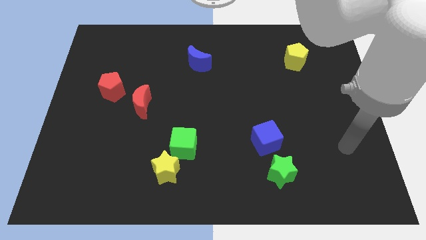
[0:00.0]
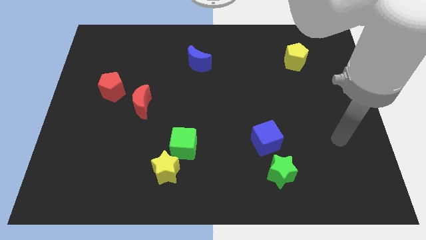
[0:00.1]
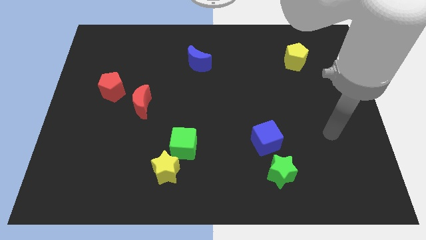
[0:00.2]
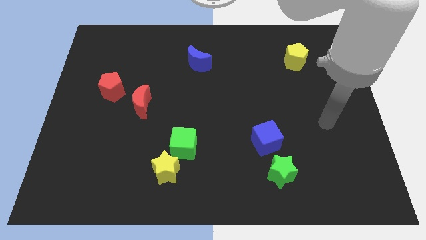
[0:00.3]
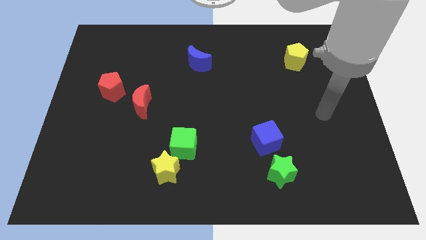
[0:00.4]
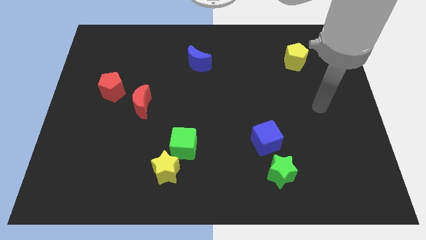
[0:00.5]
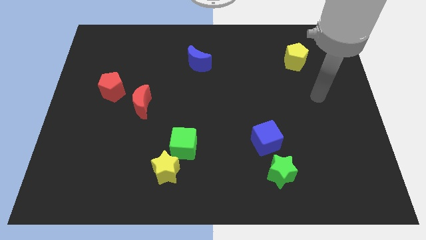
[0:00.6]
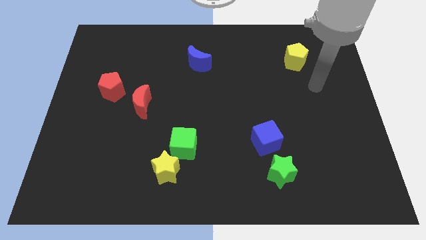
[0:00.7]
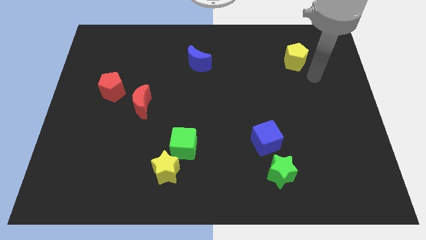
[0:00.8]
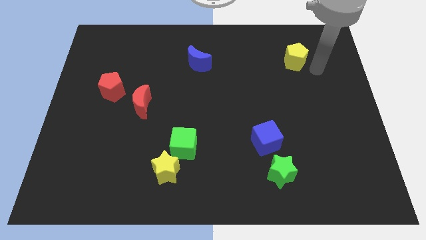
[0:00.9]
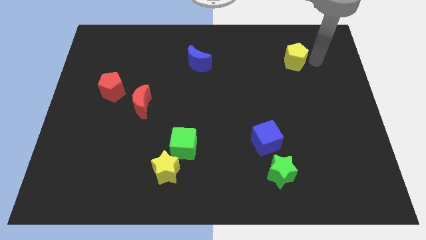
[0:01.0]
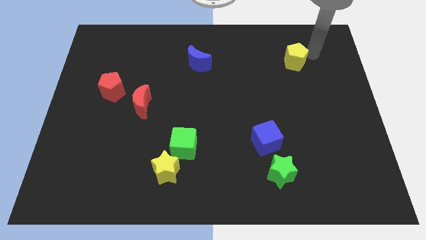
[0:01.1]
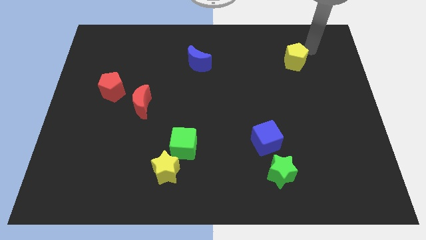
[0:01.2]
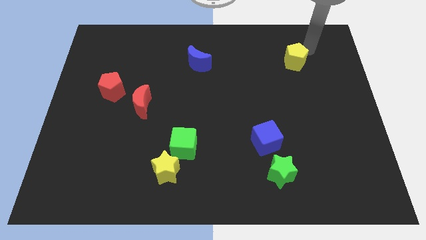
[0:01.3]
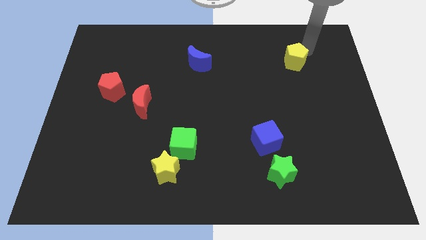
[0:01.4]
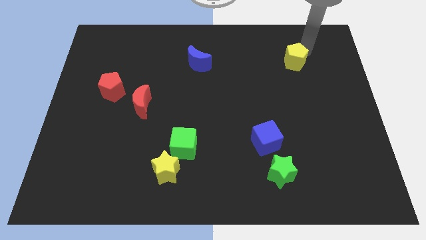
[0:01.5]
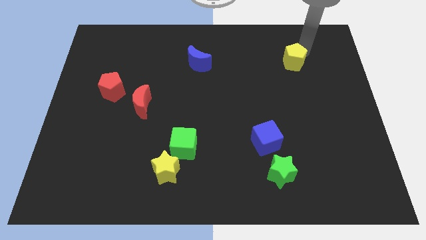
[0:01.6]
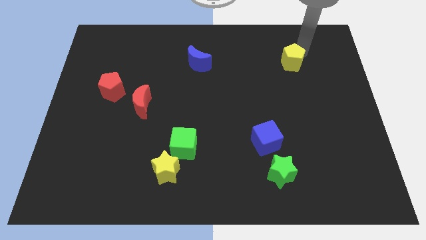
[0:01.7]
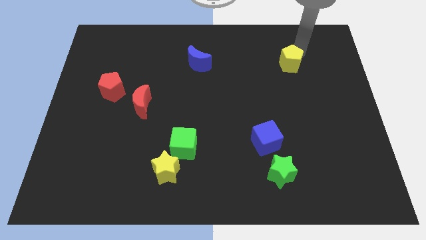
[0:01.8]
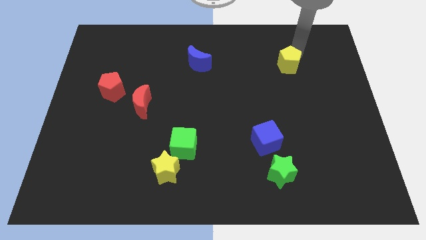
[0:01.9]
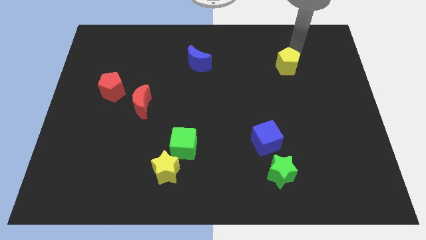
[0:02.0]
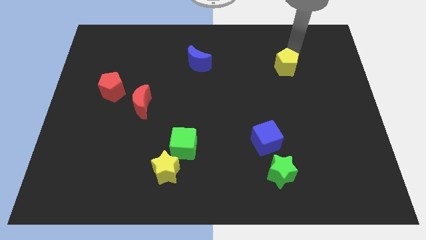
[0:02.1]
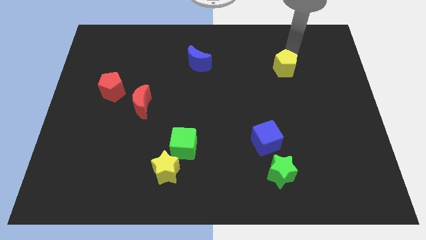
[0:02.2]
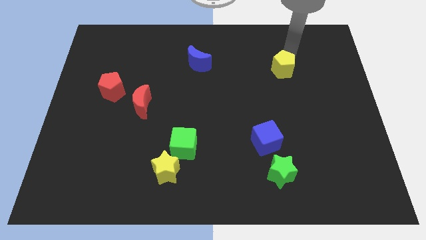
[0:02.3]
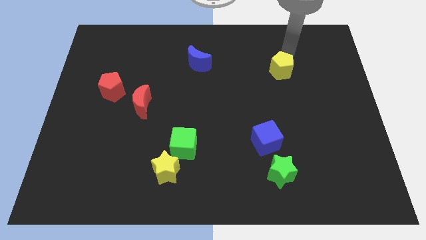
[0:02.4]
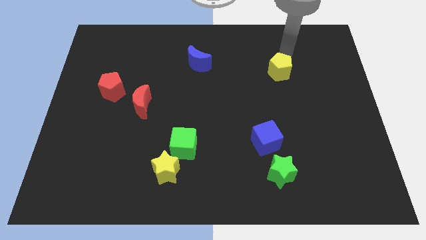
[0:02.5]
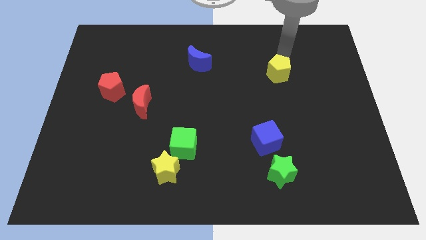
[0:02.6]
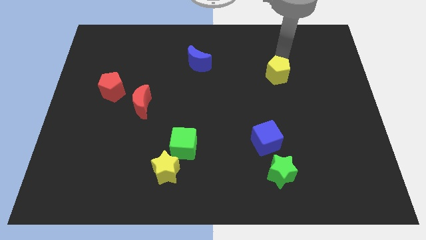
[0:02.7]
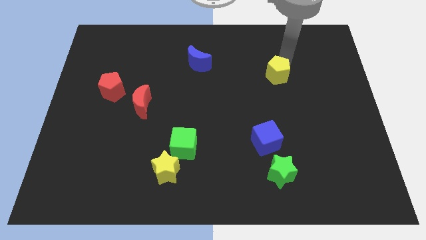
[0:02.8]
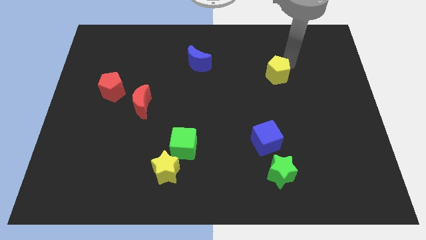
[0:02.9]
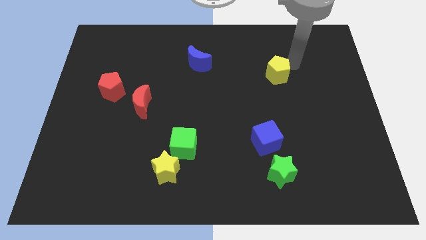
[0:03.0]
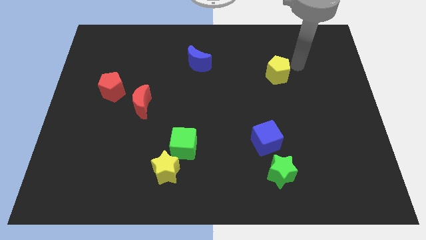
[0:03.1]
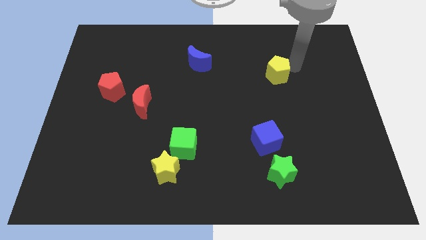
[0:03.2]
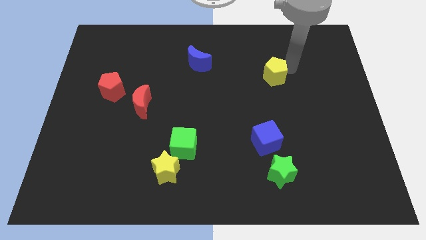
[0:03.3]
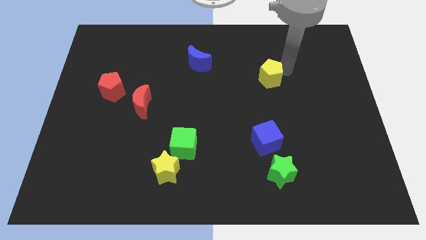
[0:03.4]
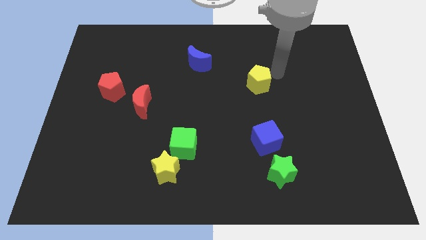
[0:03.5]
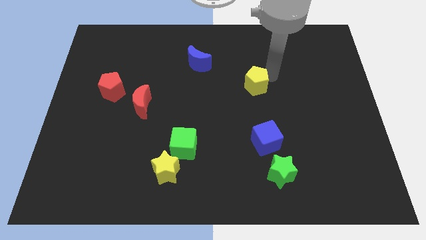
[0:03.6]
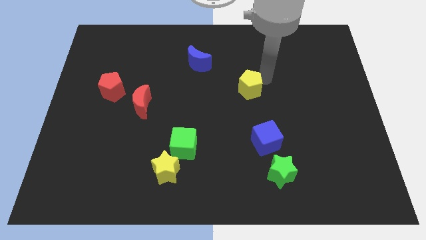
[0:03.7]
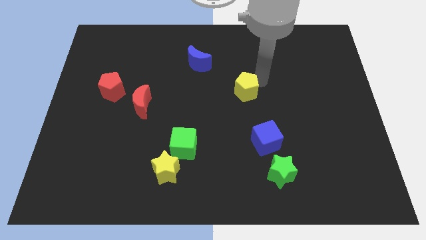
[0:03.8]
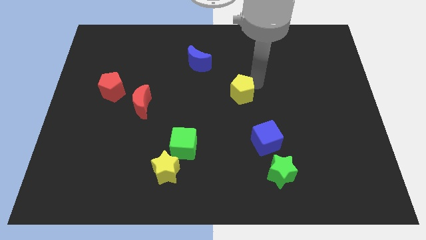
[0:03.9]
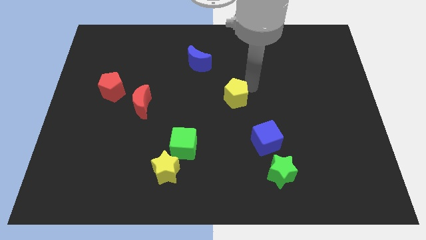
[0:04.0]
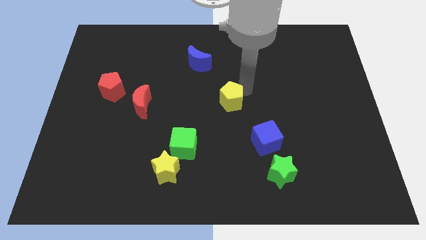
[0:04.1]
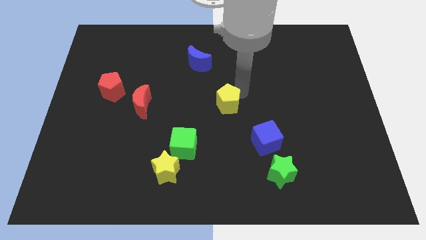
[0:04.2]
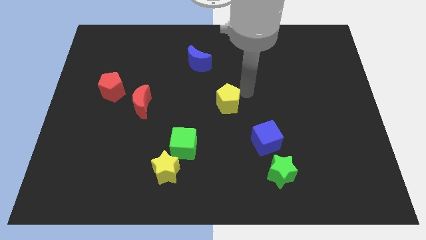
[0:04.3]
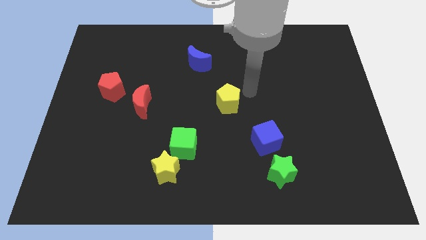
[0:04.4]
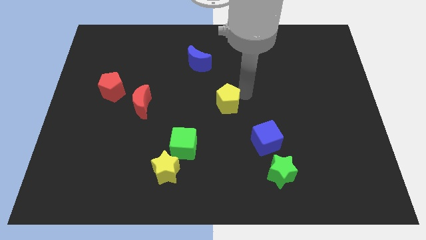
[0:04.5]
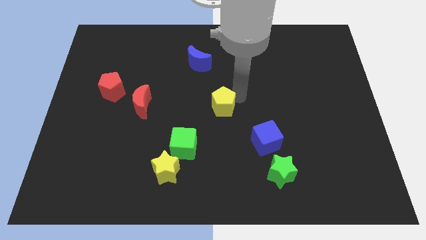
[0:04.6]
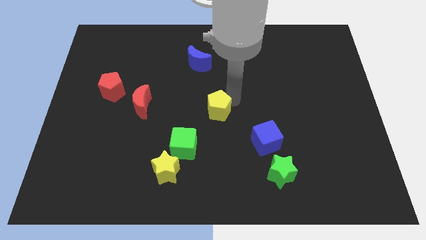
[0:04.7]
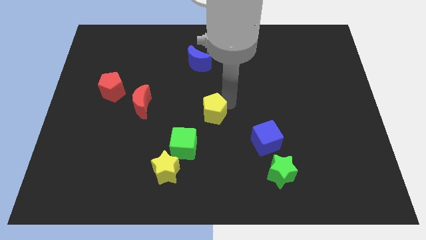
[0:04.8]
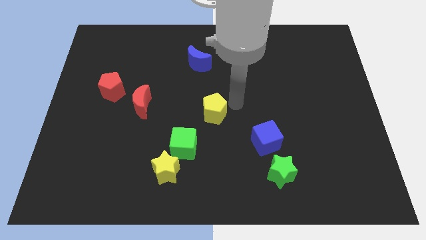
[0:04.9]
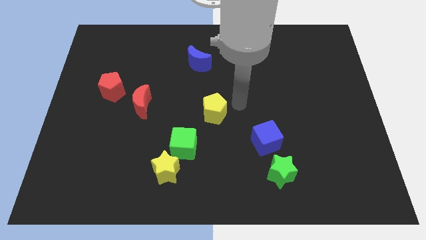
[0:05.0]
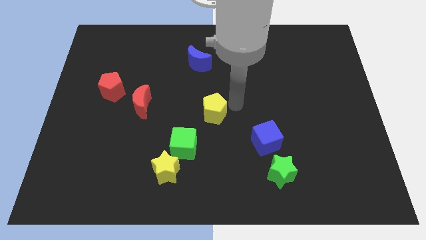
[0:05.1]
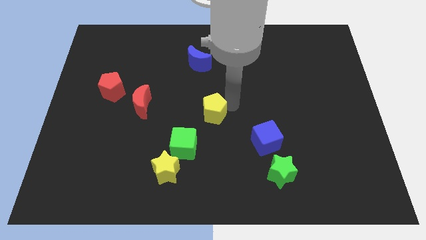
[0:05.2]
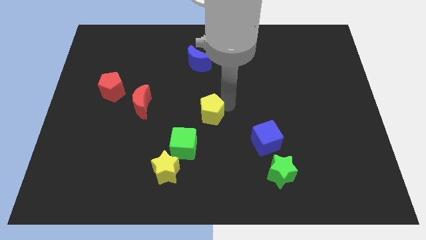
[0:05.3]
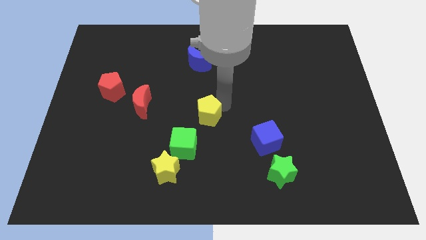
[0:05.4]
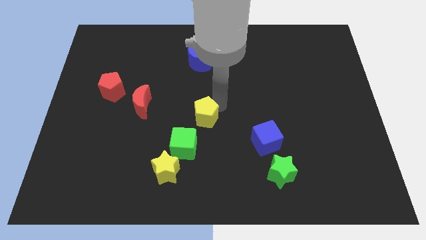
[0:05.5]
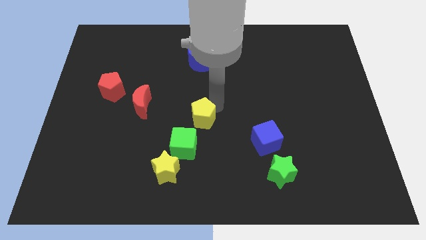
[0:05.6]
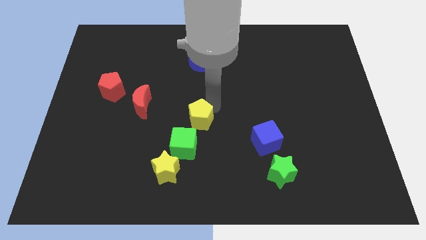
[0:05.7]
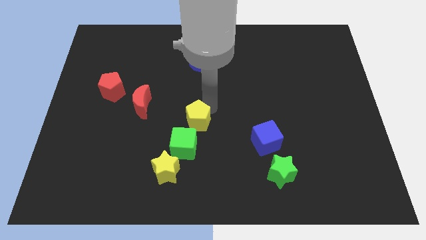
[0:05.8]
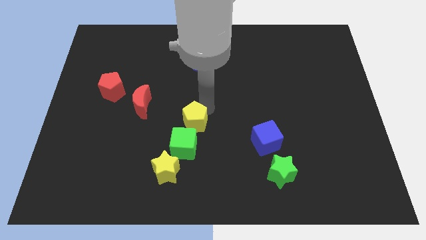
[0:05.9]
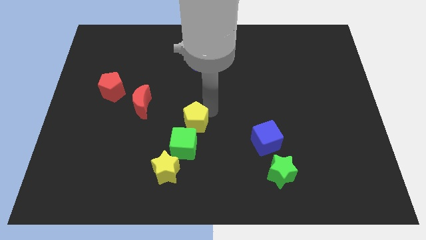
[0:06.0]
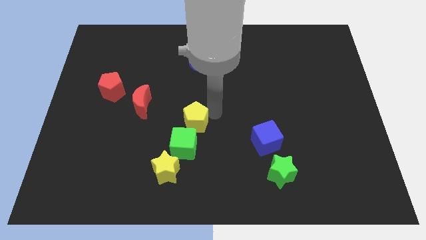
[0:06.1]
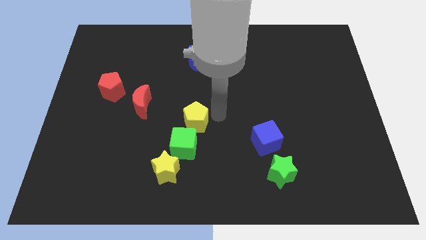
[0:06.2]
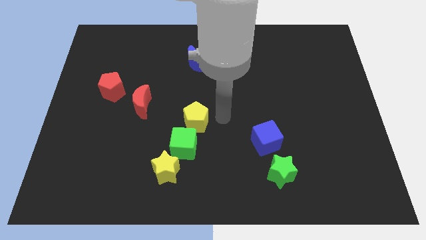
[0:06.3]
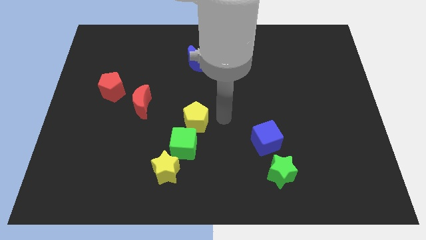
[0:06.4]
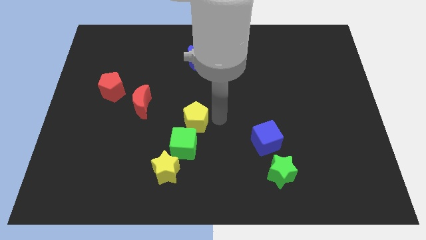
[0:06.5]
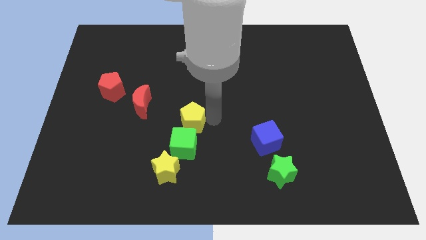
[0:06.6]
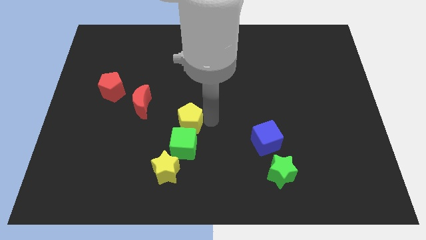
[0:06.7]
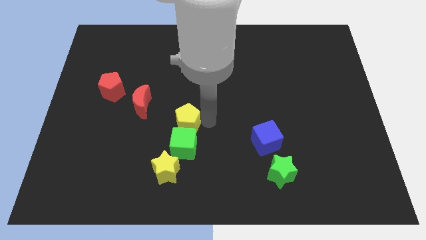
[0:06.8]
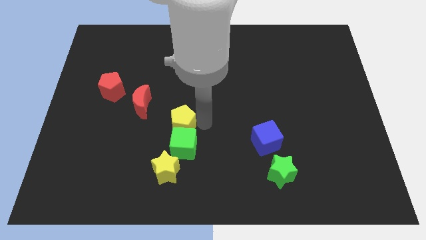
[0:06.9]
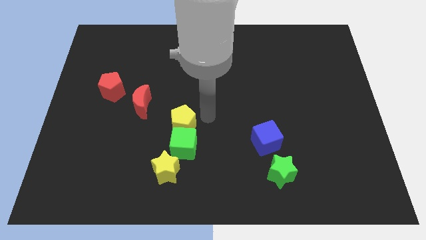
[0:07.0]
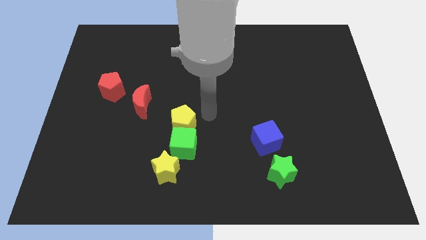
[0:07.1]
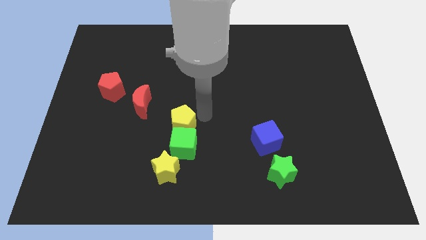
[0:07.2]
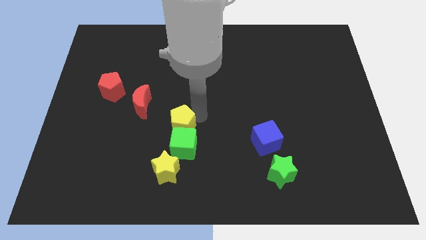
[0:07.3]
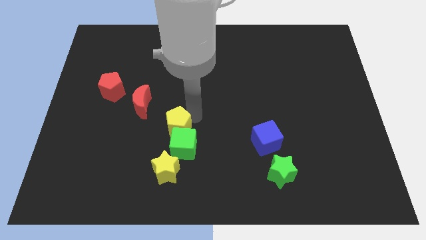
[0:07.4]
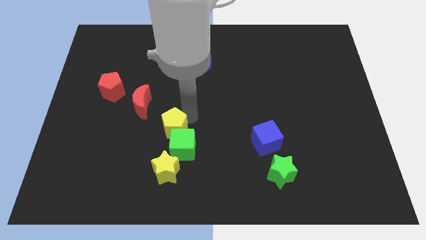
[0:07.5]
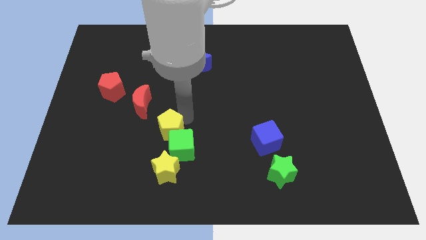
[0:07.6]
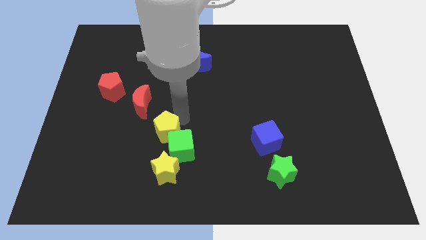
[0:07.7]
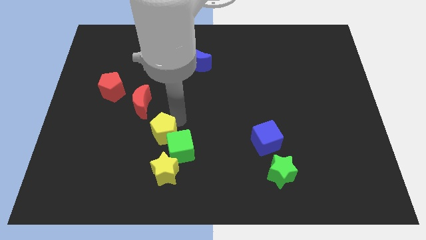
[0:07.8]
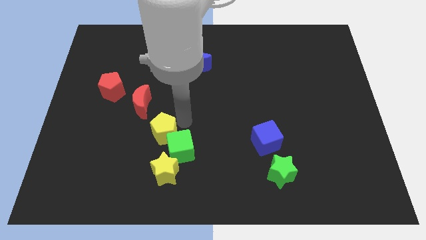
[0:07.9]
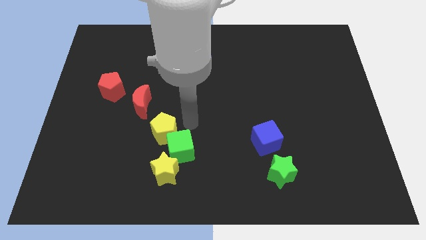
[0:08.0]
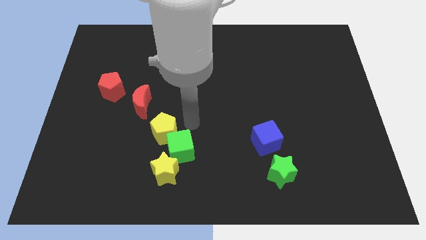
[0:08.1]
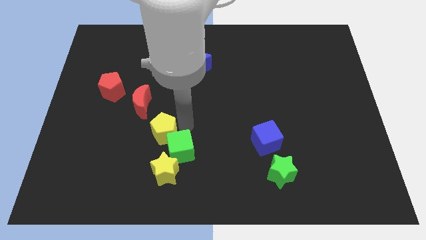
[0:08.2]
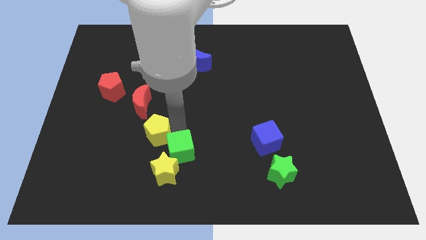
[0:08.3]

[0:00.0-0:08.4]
slide the yellow pentagon below the red moon
